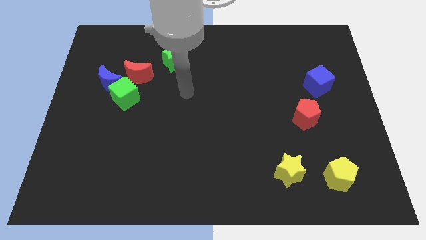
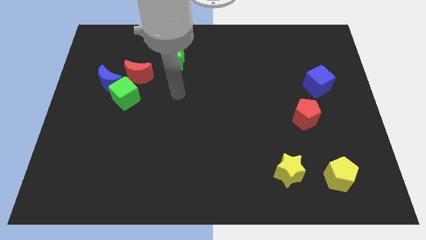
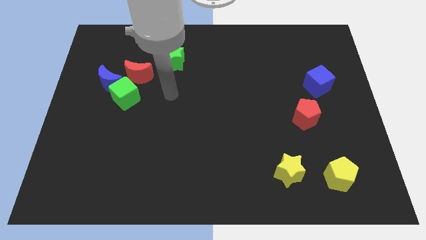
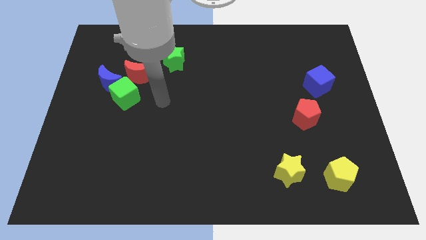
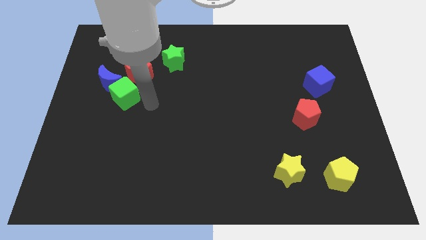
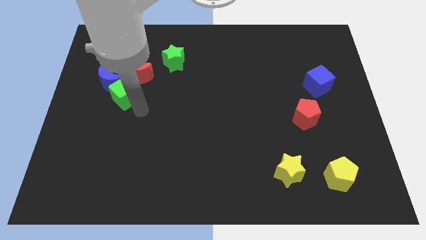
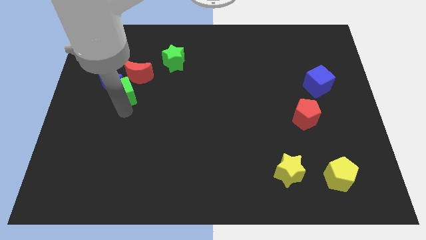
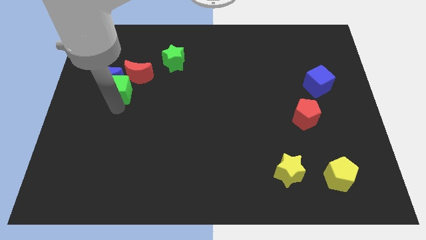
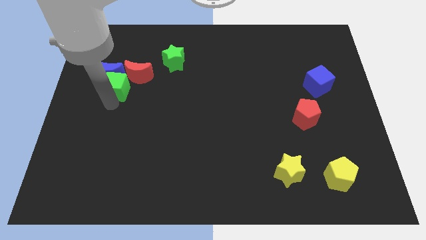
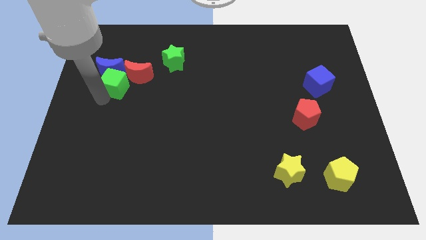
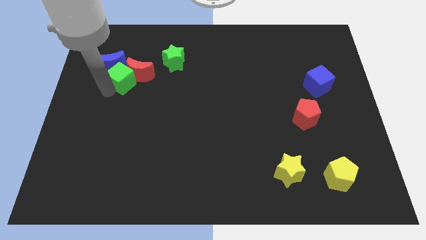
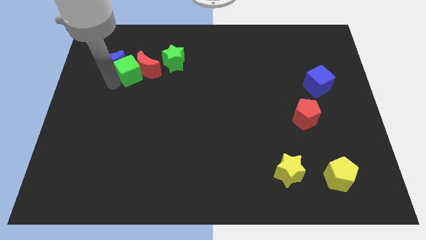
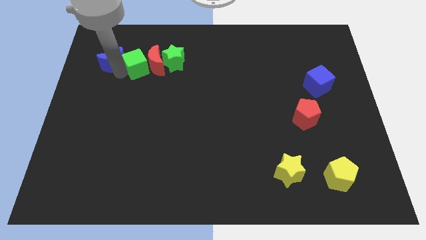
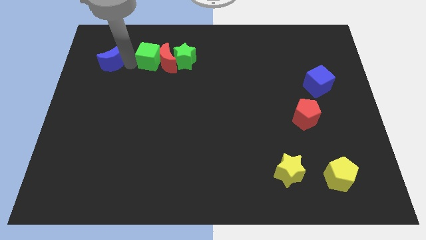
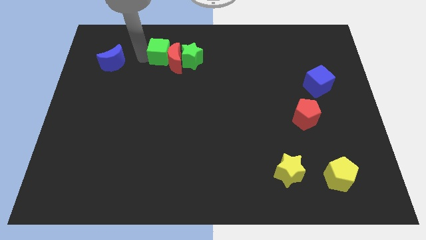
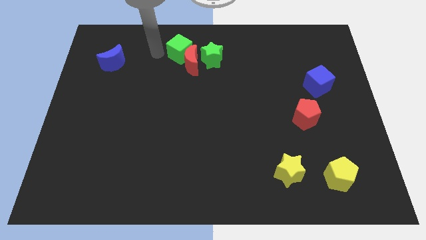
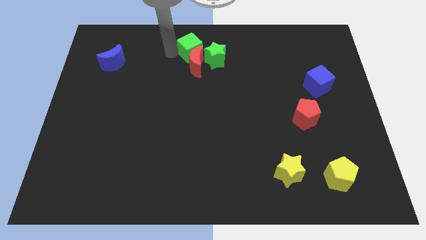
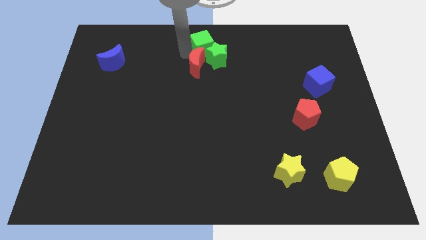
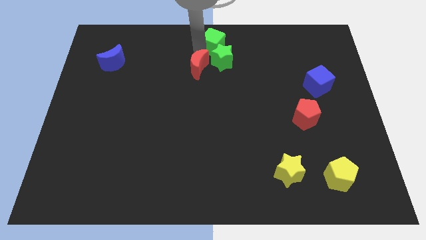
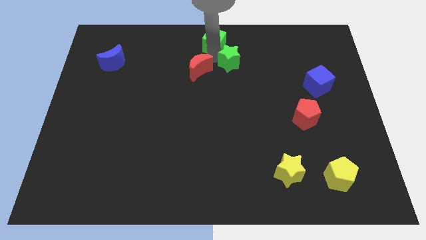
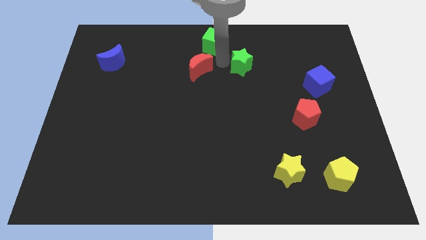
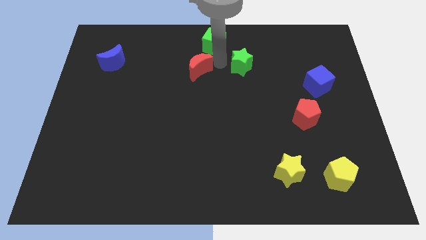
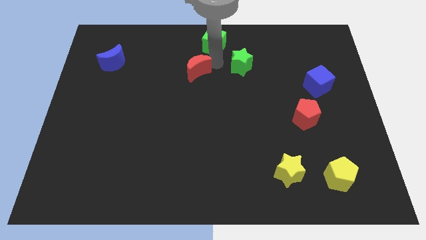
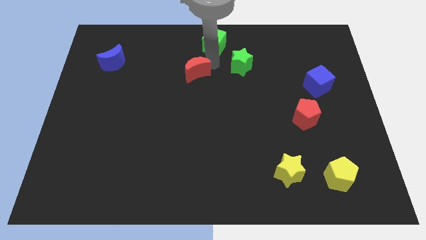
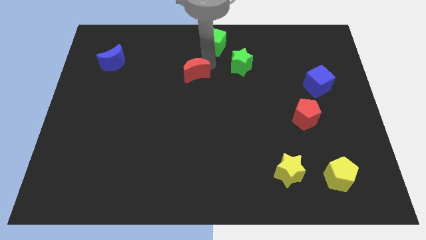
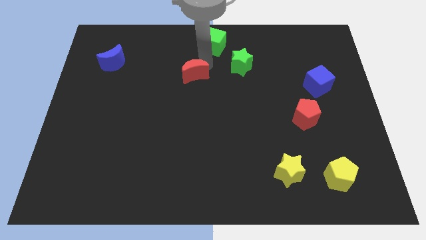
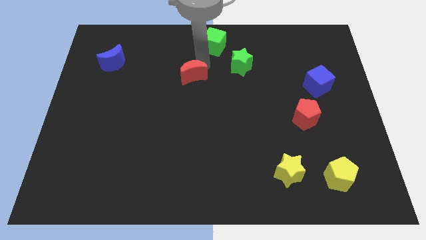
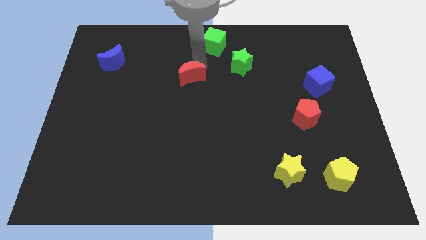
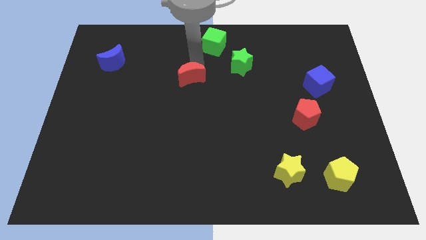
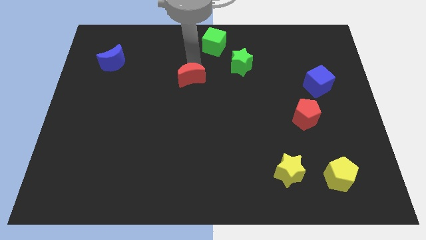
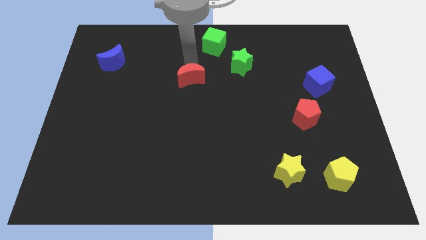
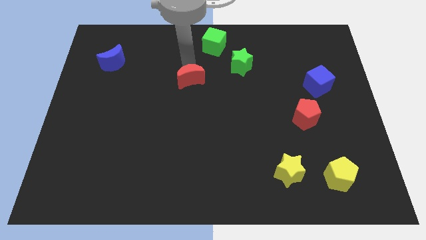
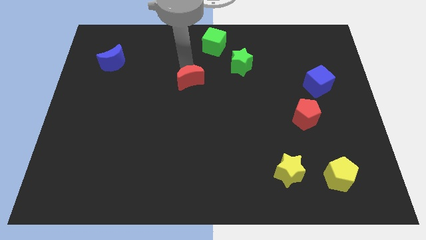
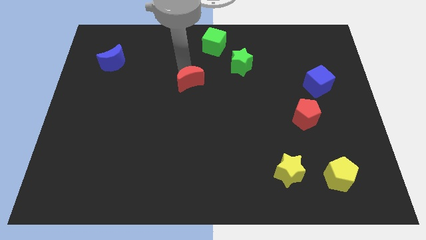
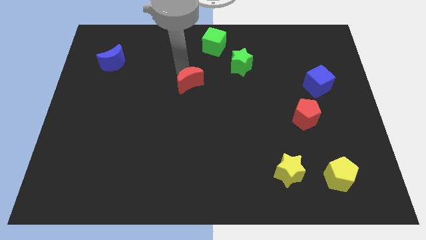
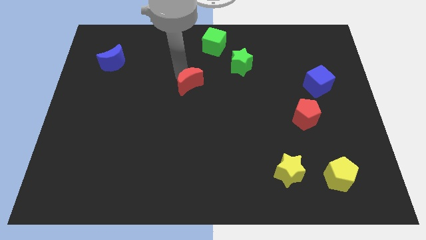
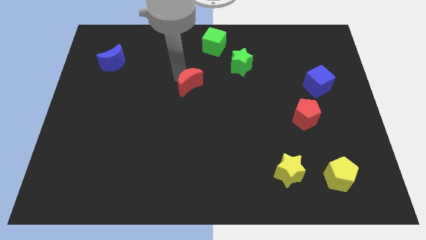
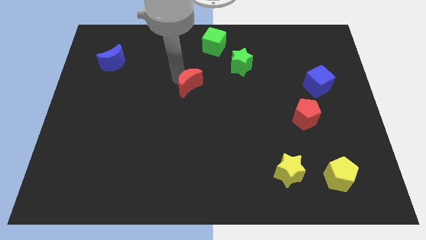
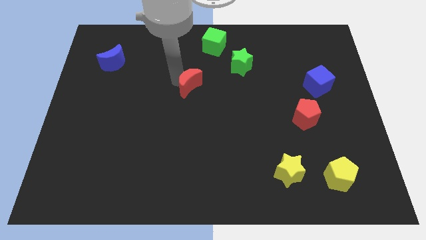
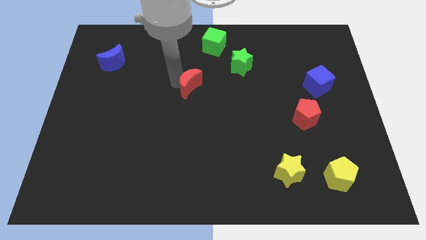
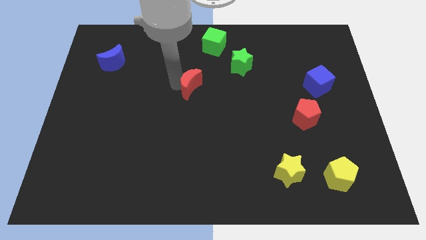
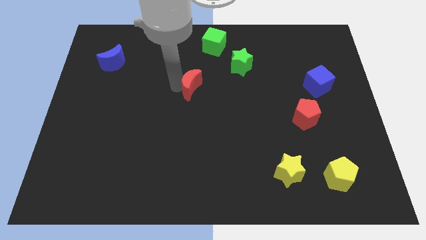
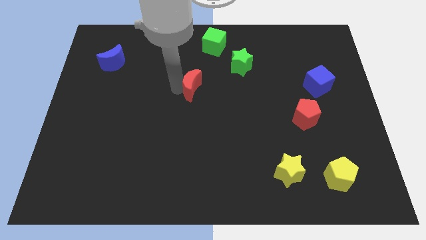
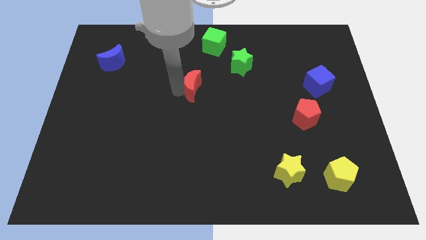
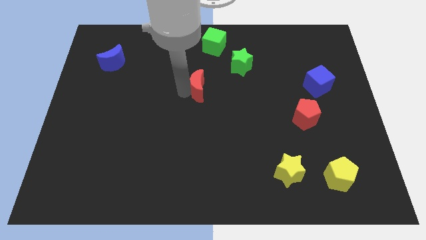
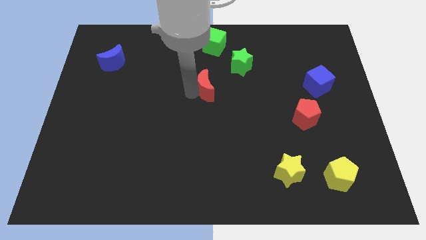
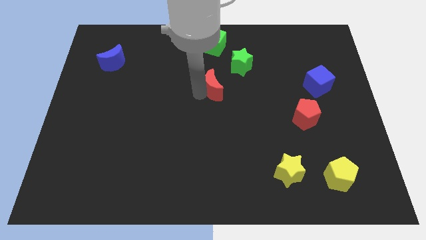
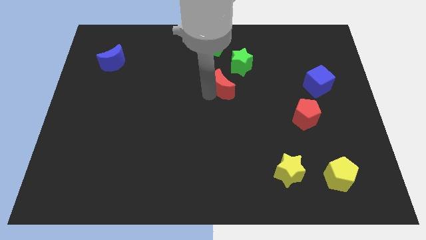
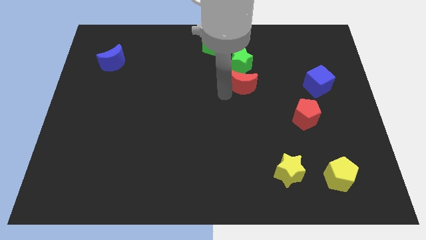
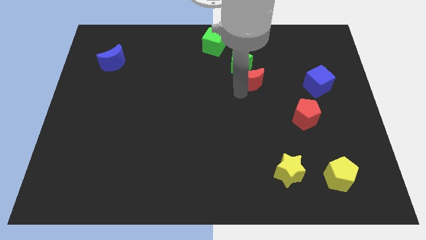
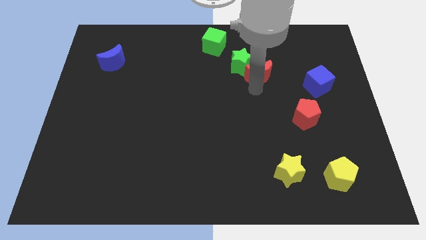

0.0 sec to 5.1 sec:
put the red moon left of the blue cube

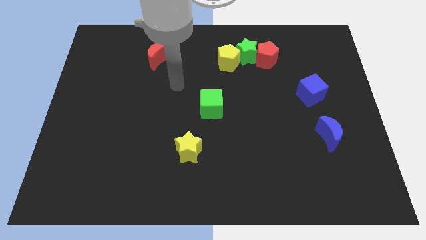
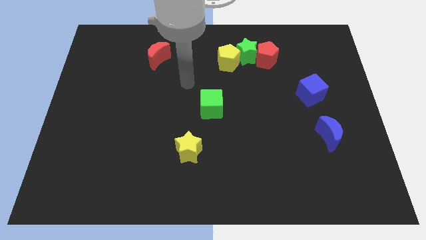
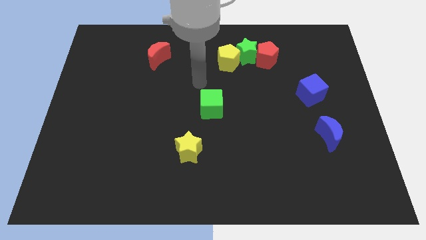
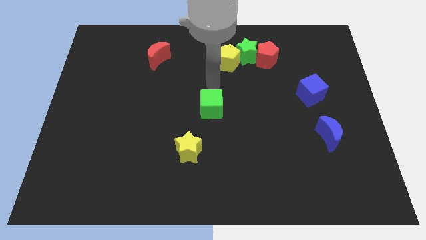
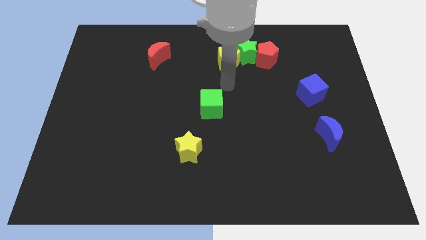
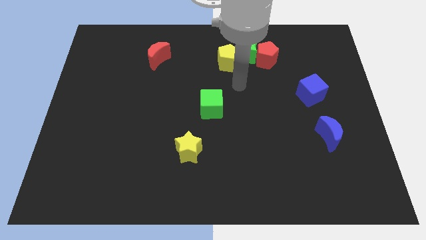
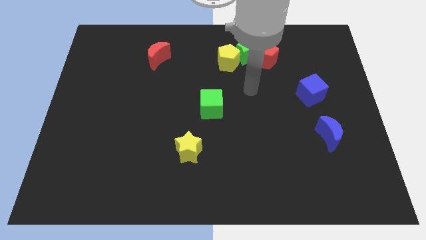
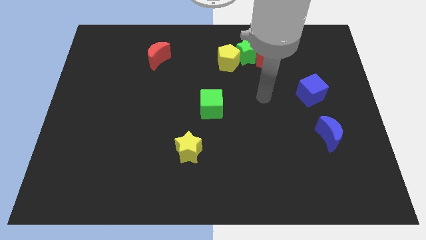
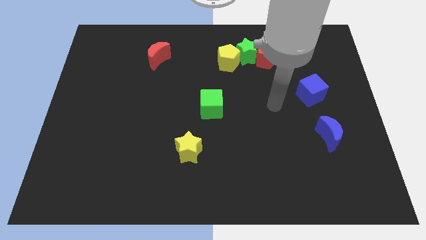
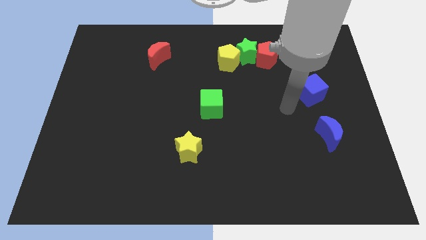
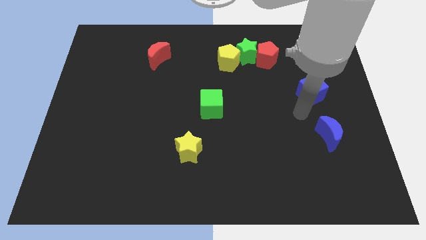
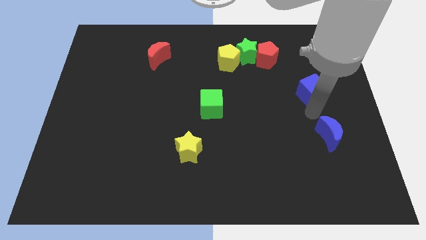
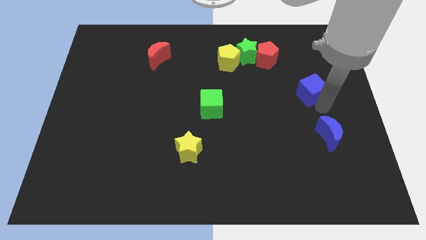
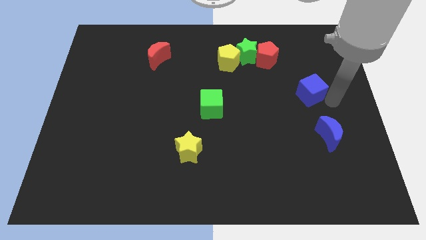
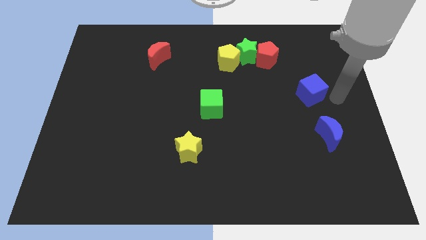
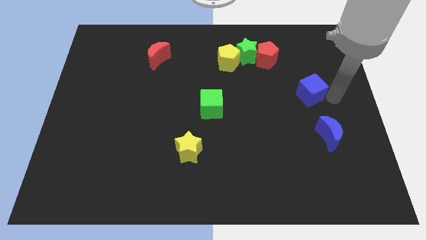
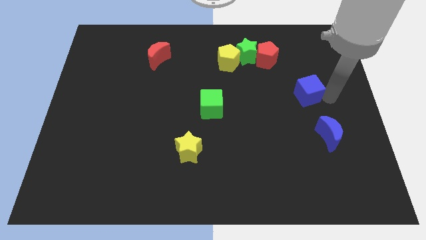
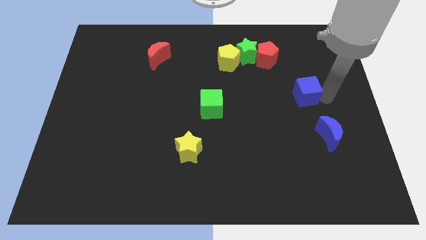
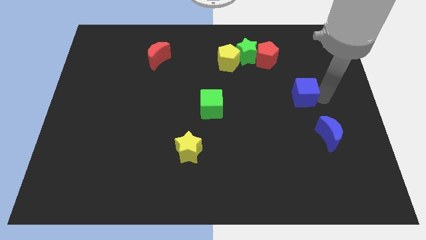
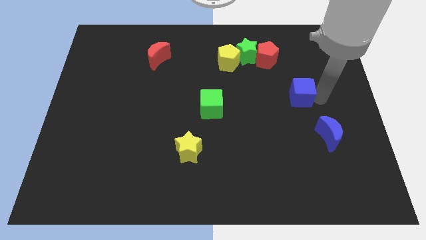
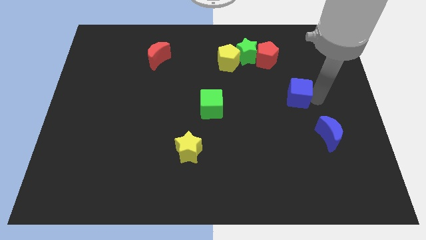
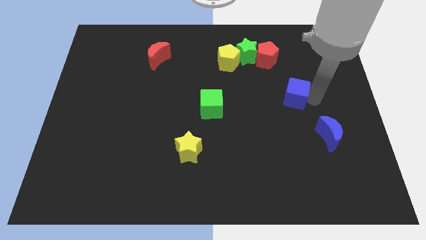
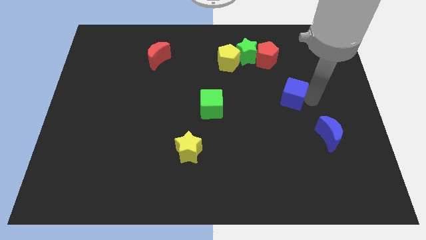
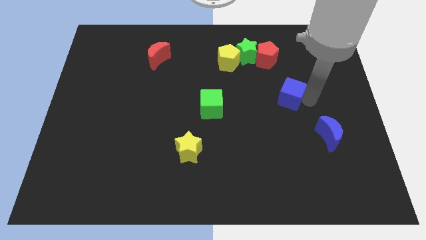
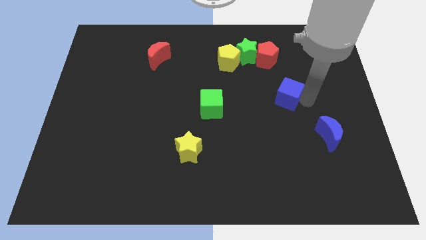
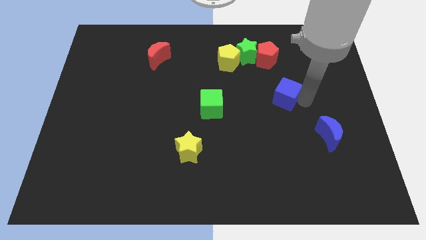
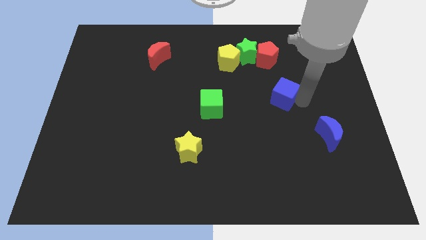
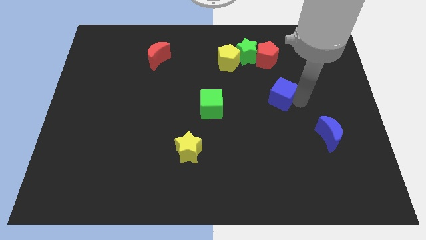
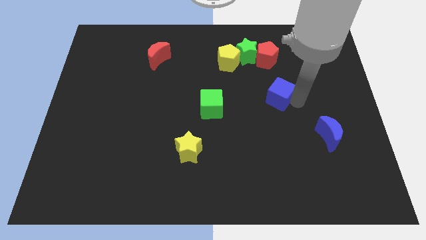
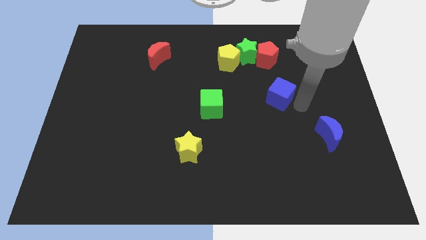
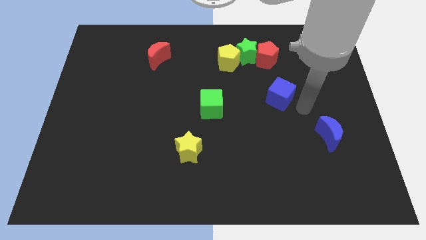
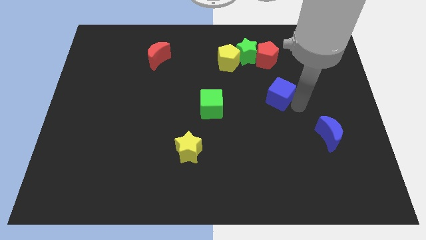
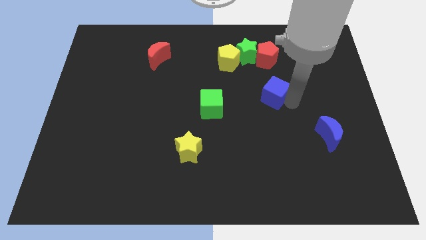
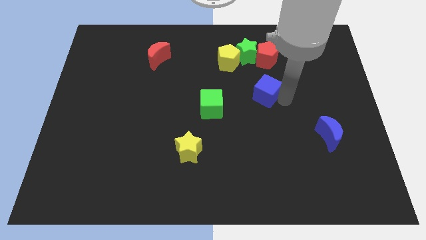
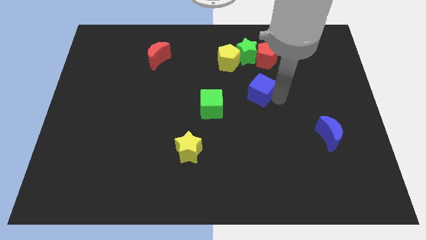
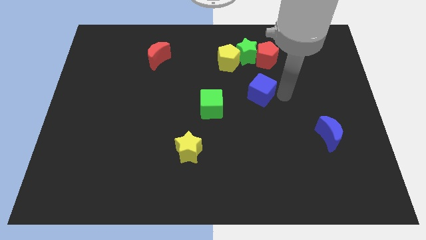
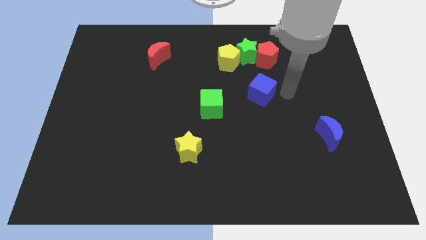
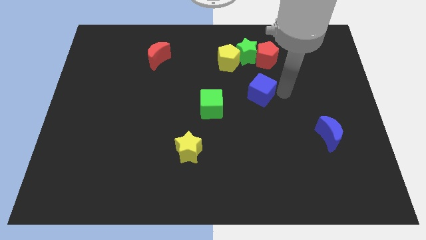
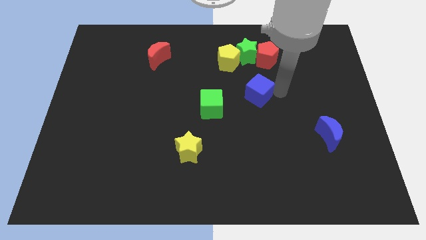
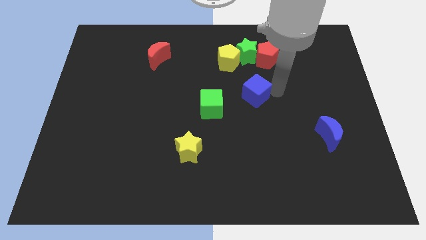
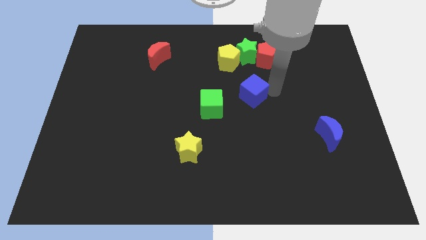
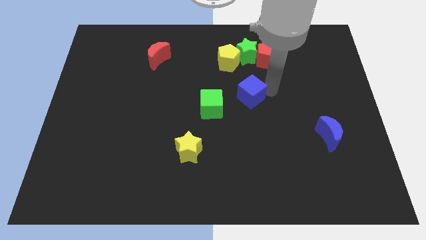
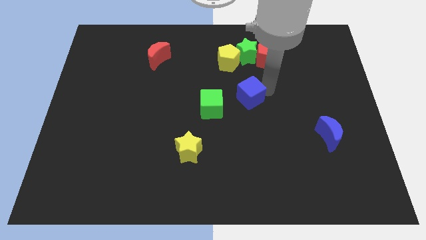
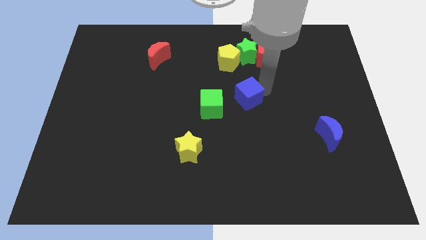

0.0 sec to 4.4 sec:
slide the blue cube to the bottom side of the yellow pentagon
